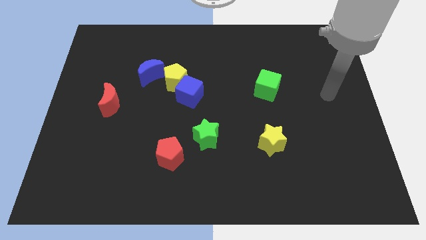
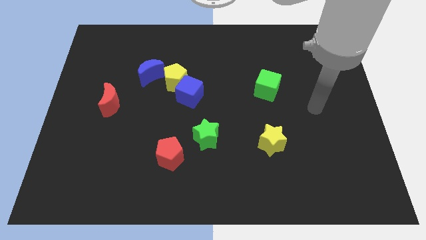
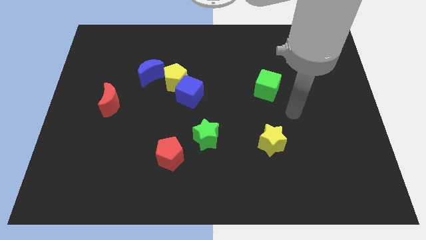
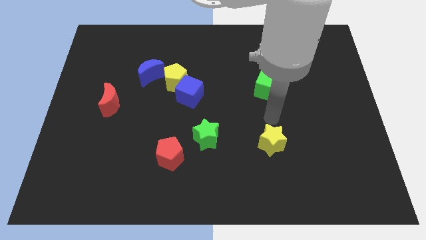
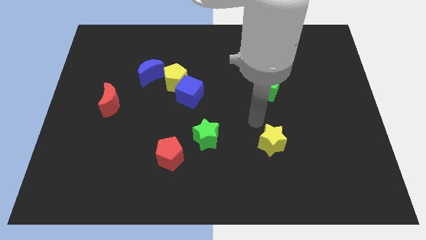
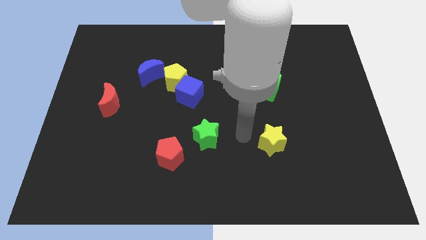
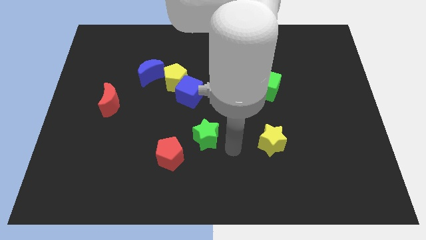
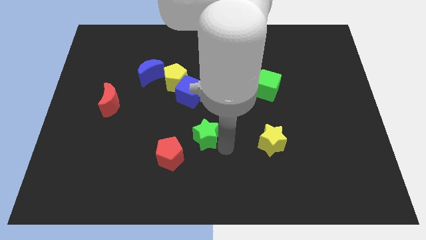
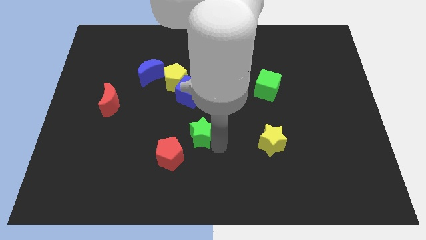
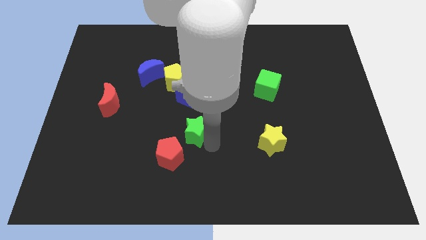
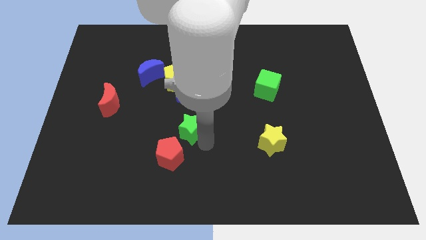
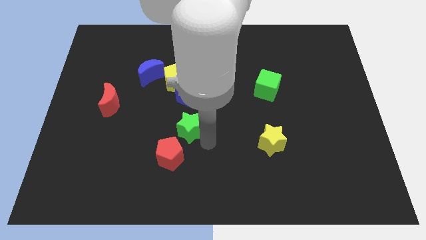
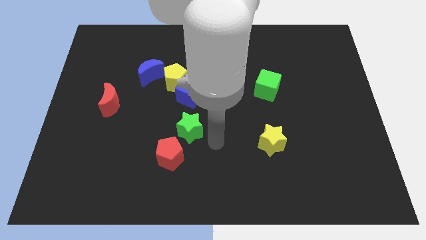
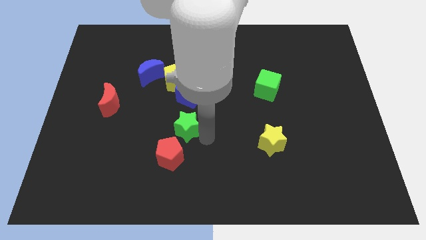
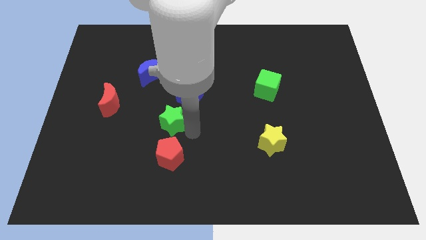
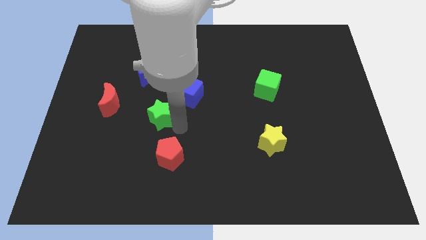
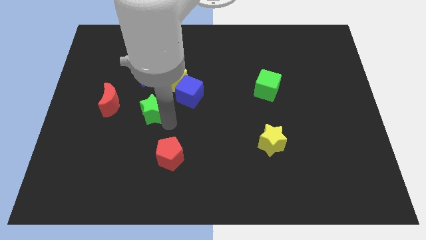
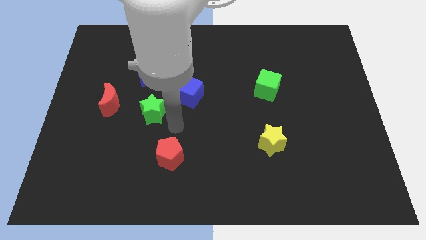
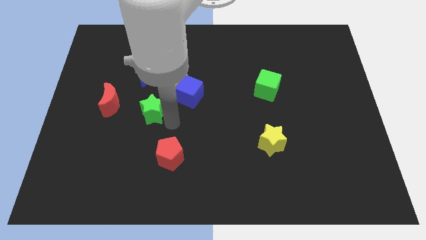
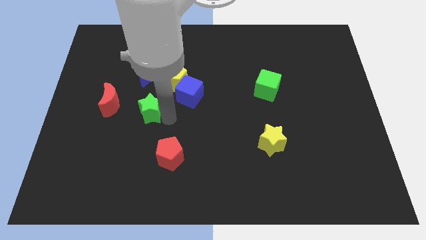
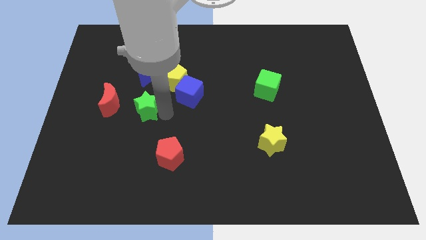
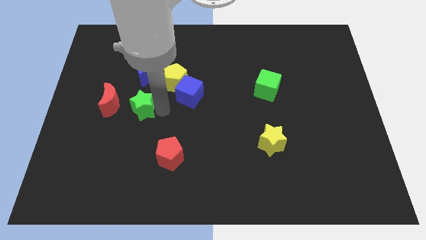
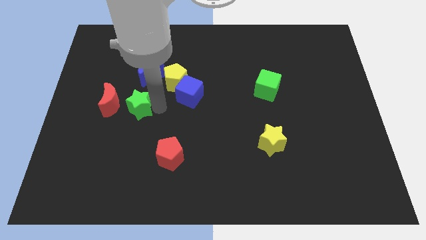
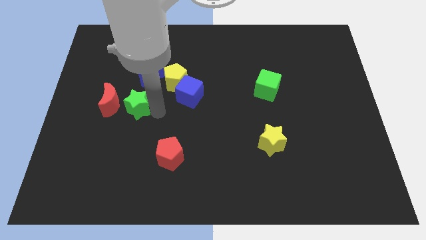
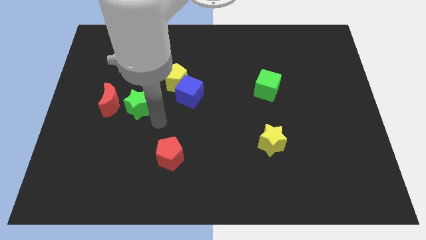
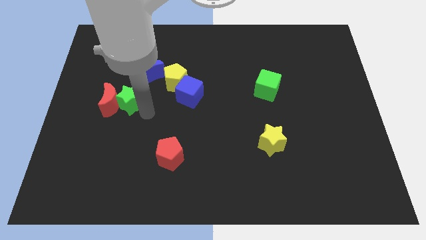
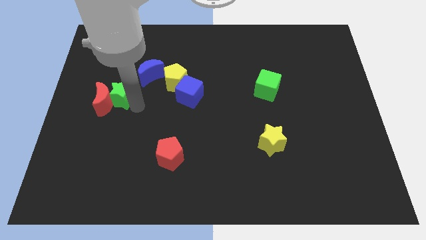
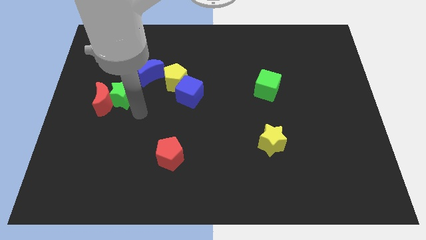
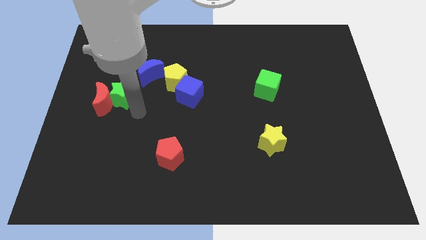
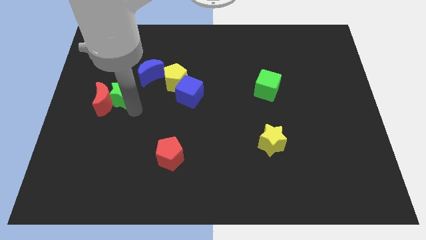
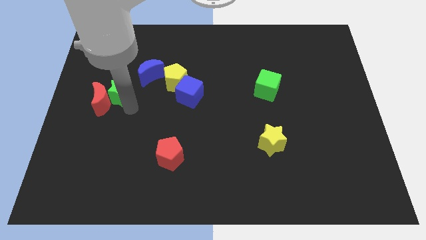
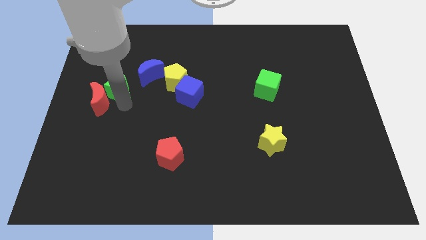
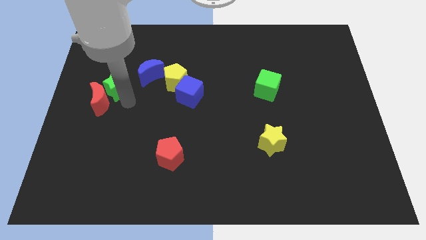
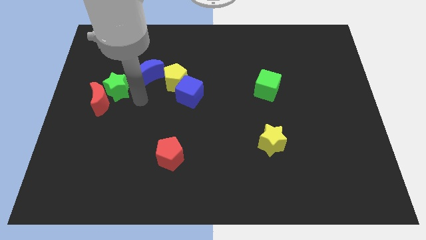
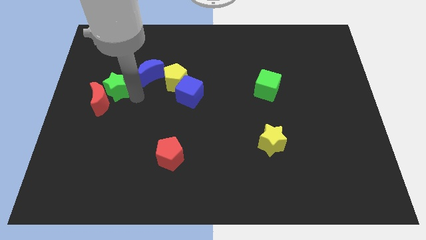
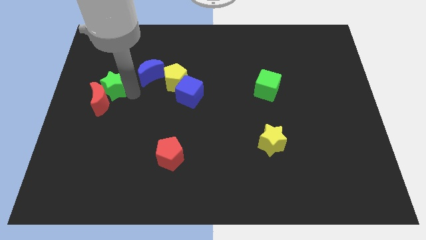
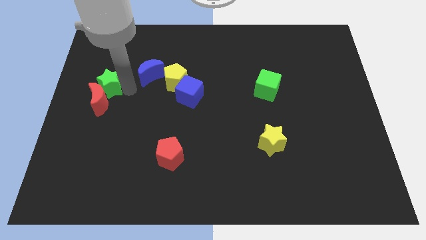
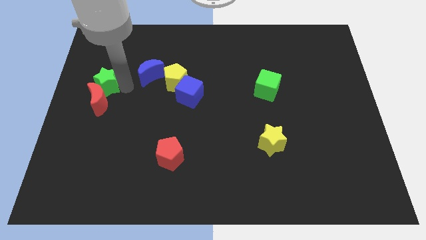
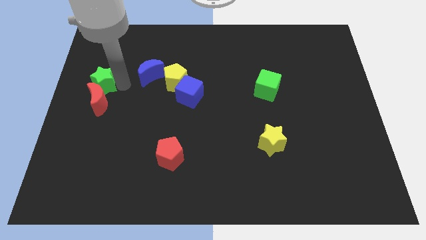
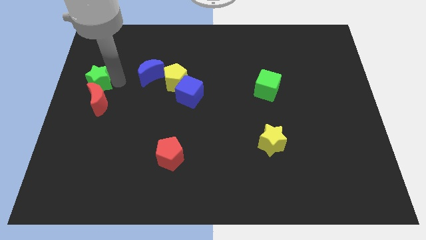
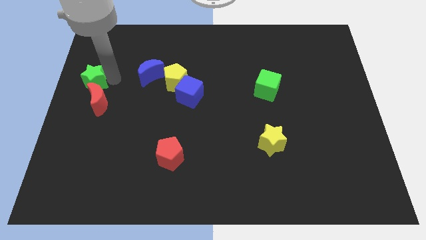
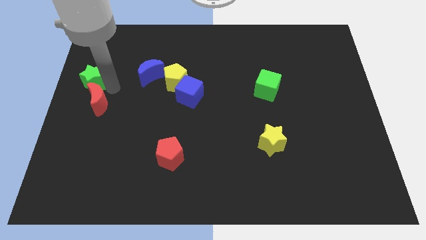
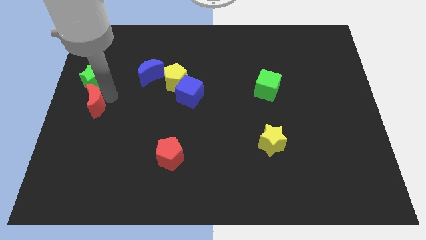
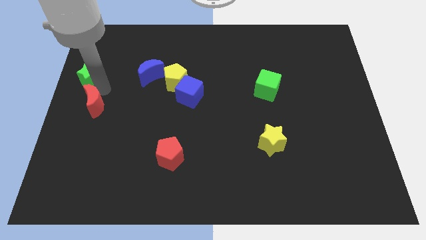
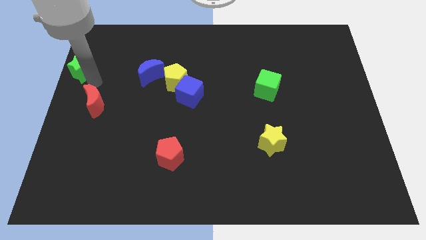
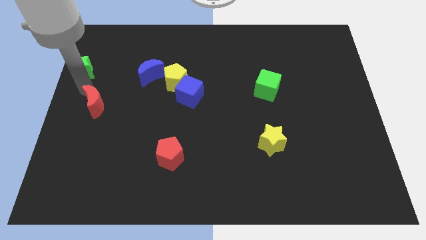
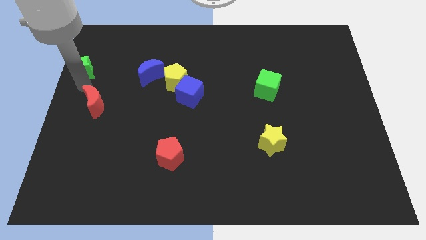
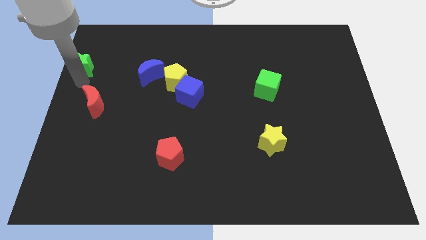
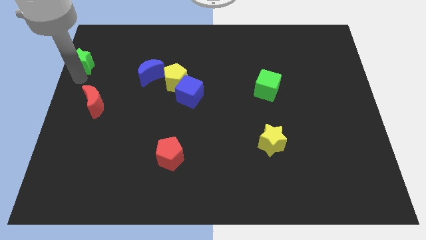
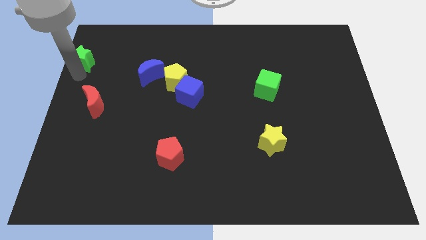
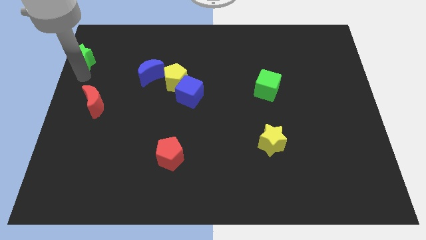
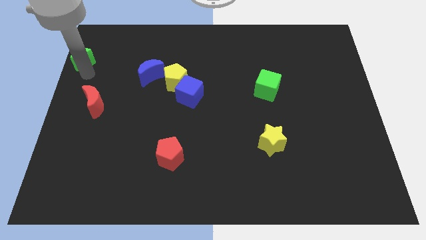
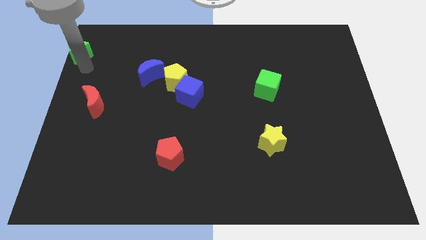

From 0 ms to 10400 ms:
move the green star to the top left of the board

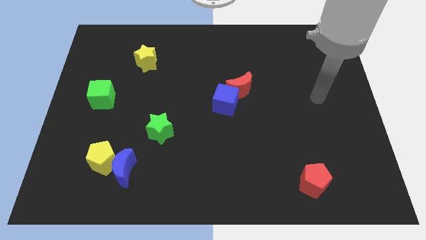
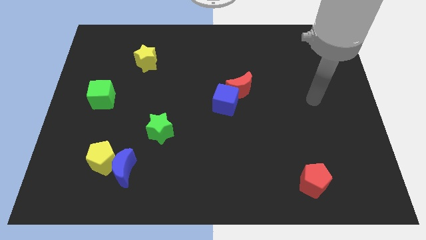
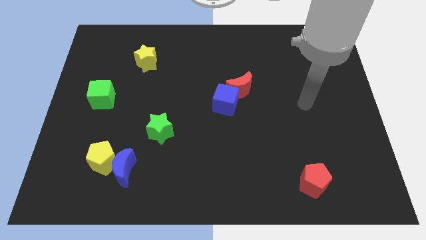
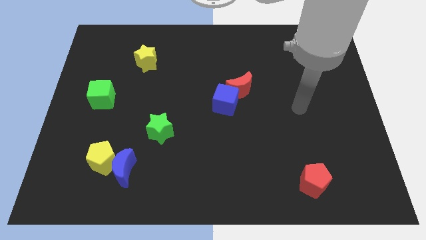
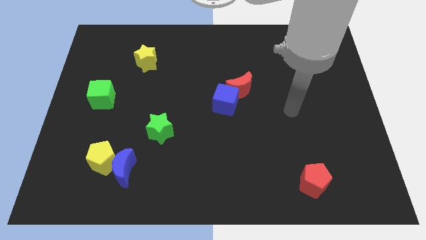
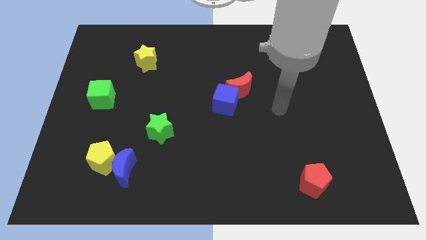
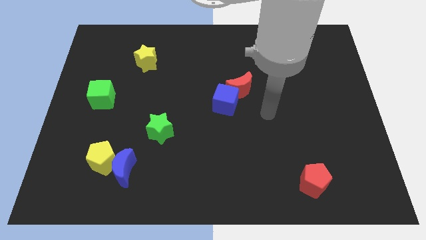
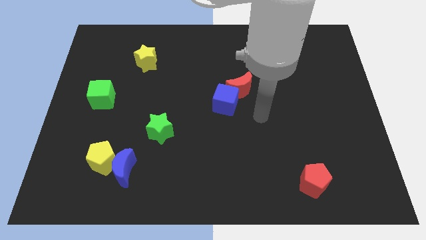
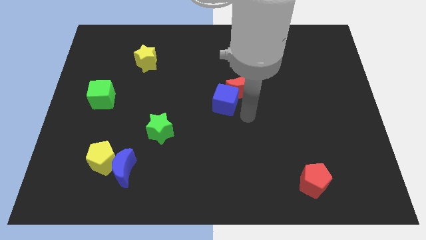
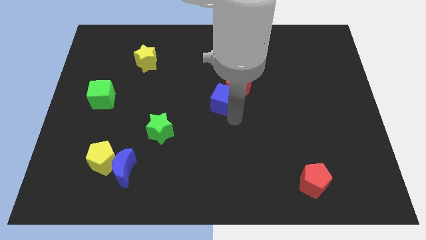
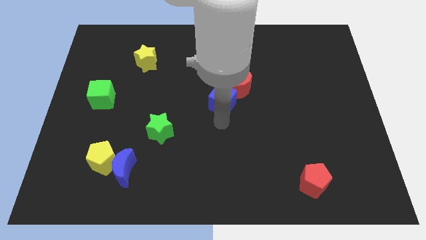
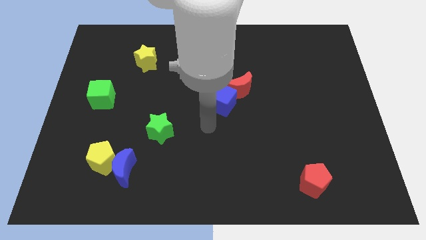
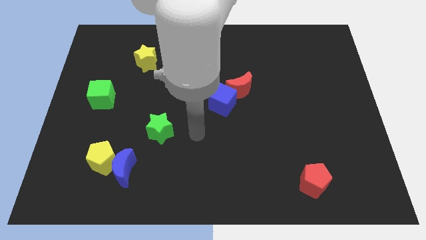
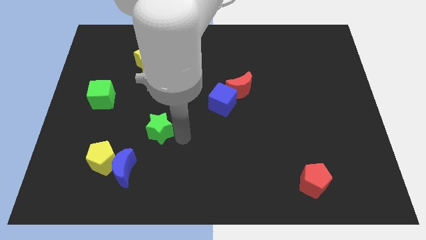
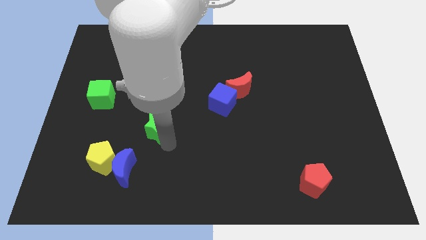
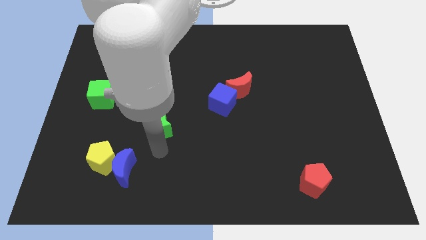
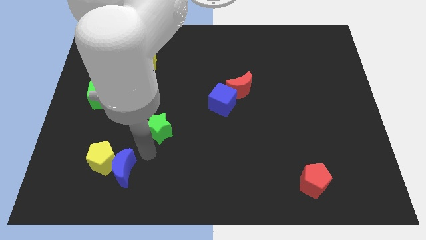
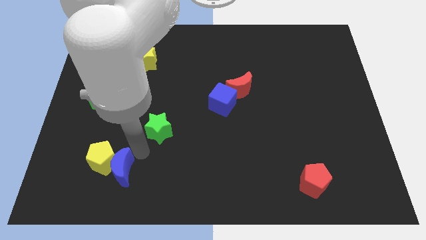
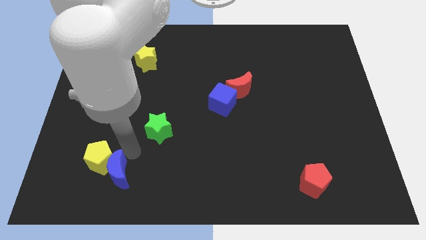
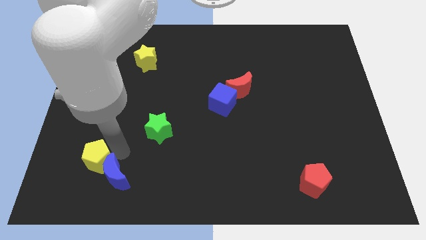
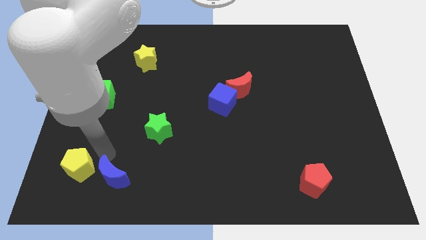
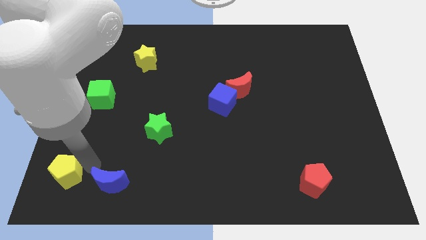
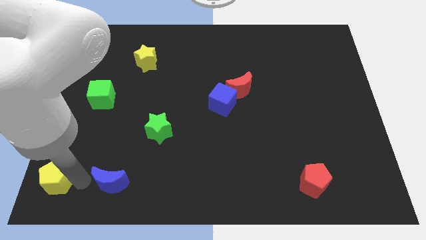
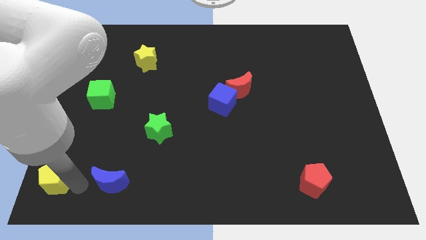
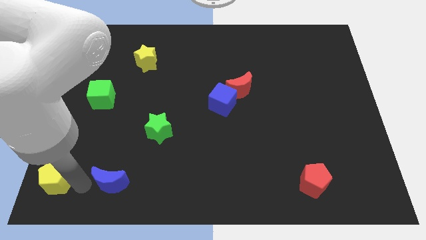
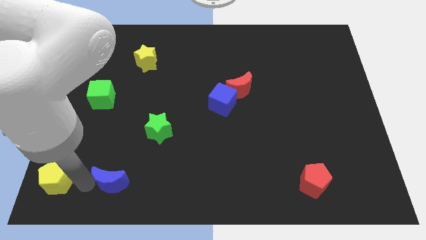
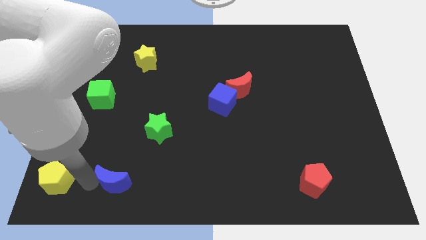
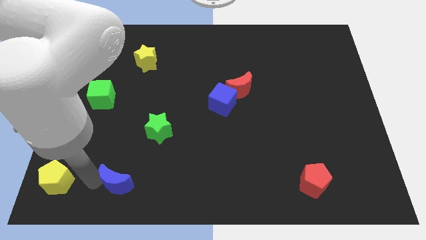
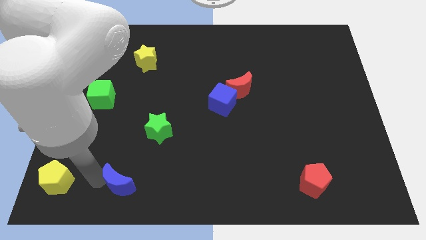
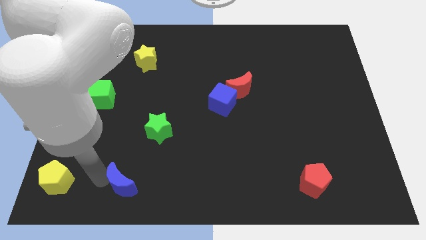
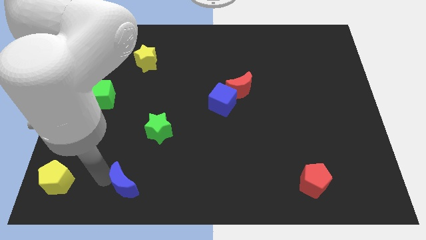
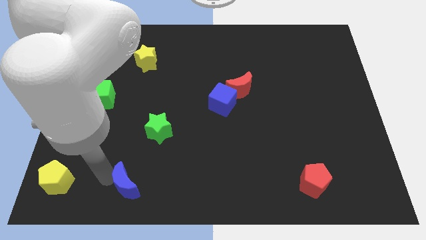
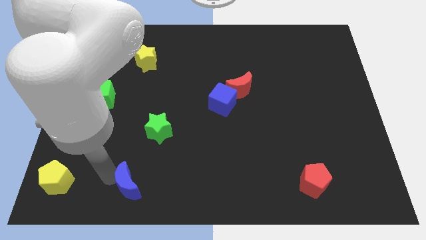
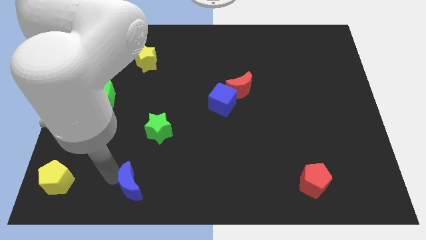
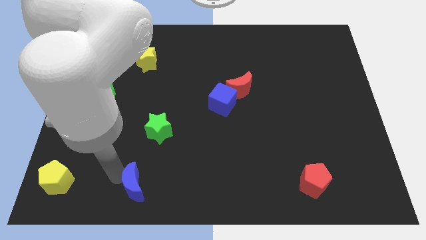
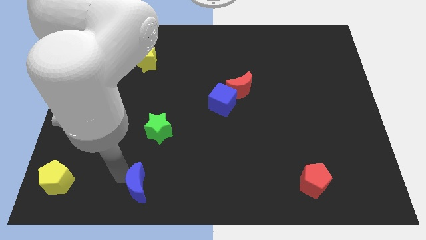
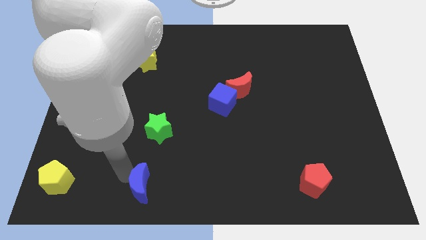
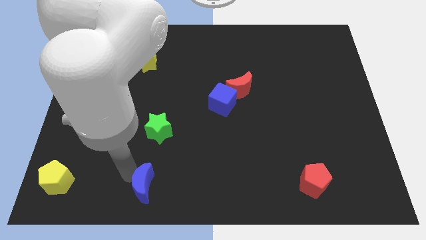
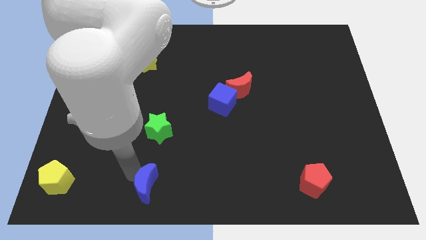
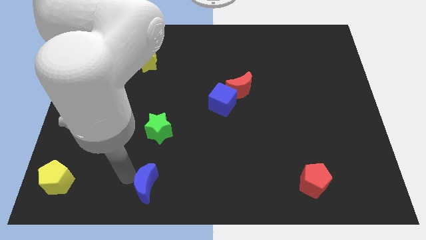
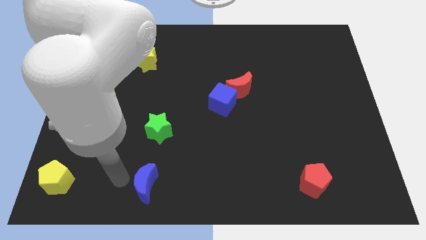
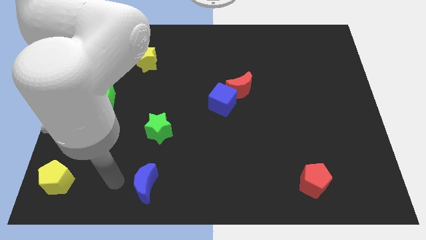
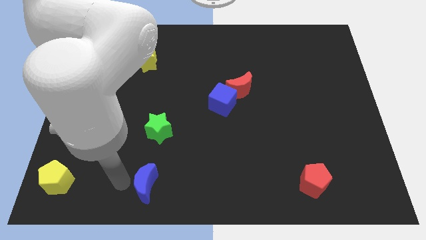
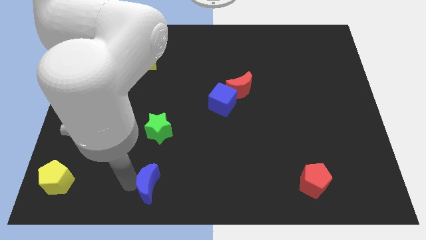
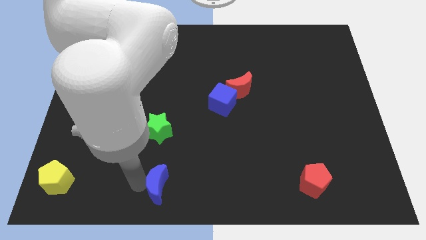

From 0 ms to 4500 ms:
move the blue moon to the bottom side
